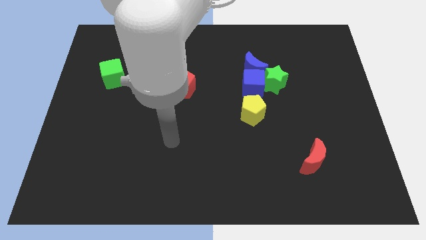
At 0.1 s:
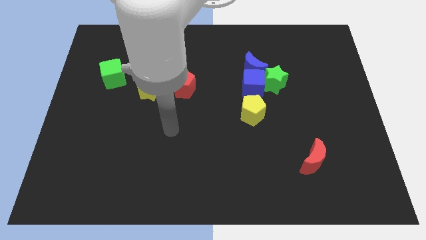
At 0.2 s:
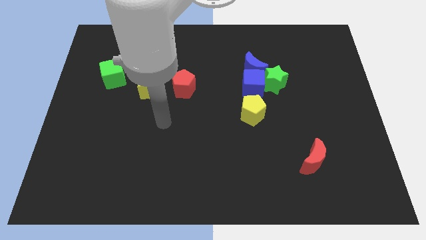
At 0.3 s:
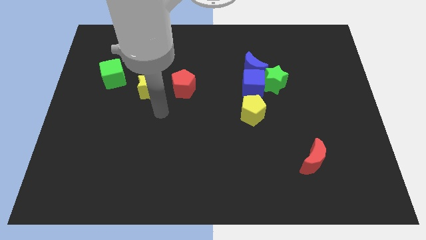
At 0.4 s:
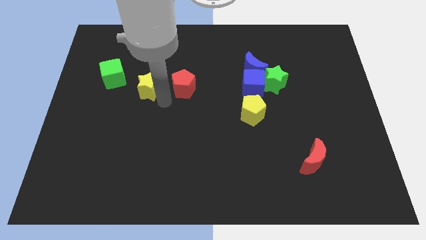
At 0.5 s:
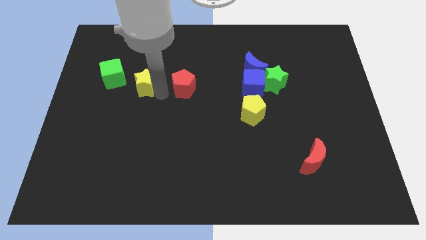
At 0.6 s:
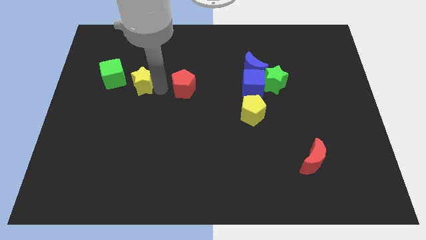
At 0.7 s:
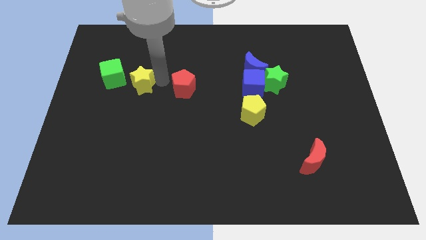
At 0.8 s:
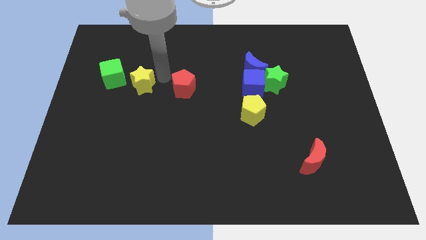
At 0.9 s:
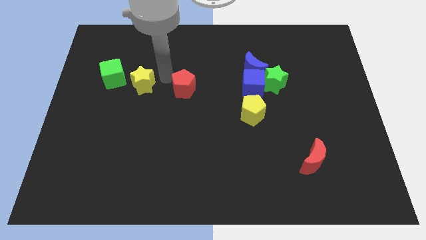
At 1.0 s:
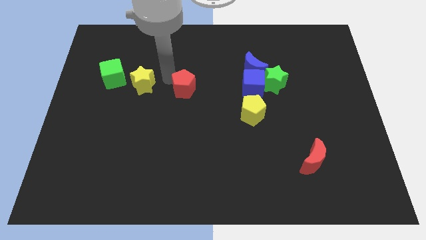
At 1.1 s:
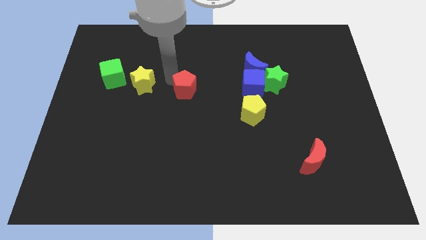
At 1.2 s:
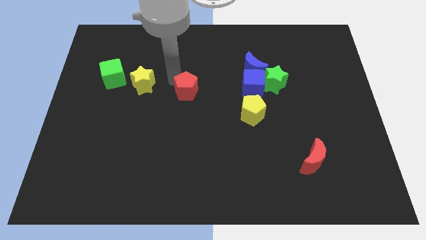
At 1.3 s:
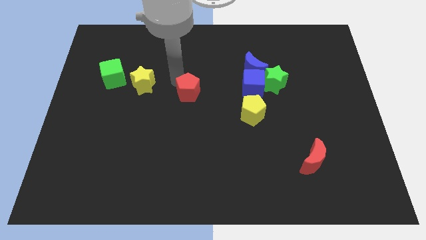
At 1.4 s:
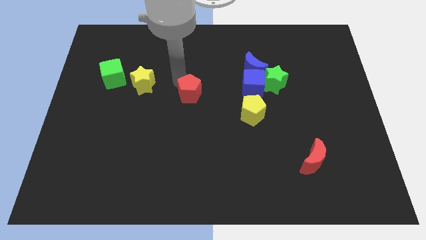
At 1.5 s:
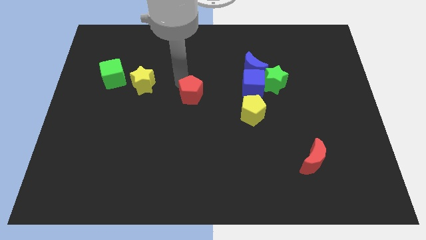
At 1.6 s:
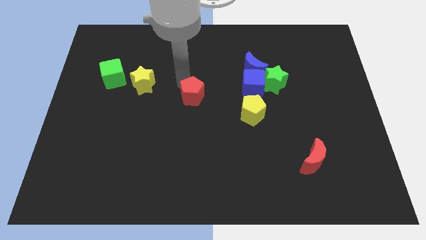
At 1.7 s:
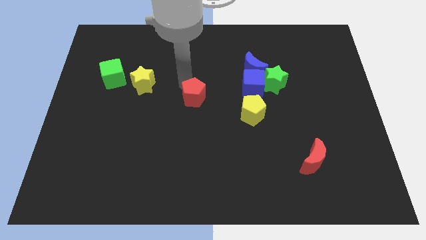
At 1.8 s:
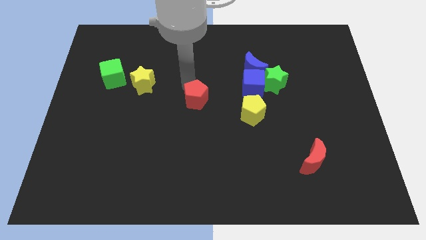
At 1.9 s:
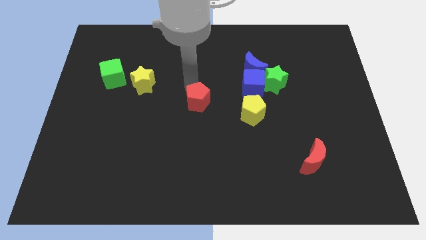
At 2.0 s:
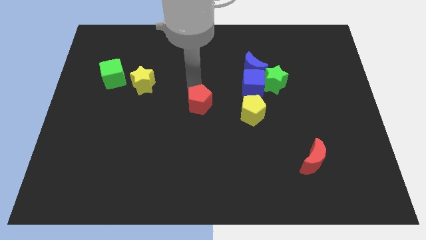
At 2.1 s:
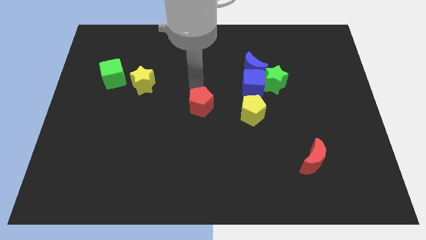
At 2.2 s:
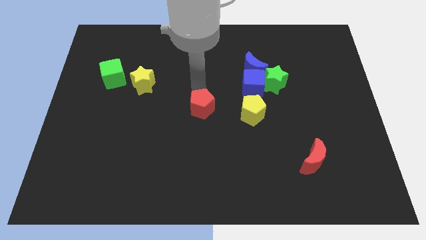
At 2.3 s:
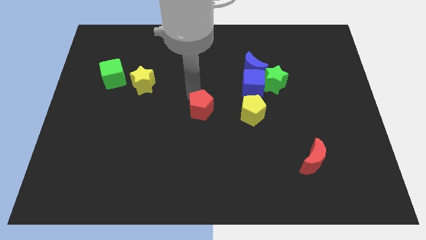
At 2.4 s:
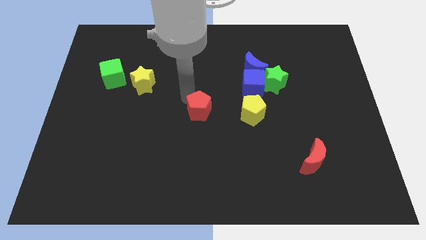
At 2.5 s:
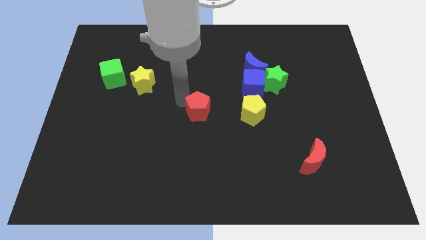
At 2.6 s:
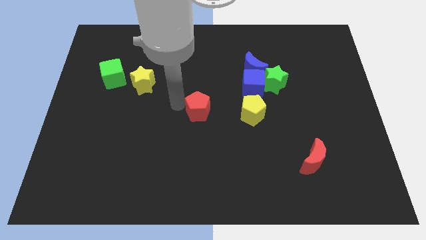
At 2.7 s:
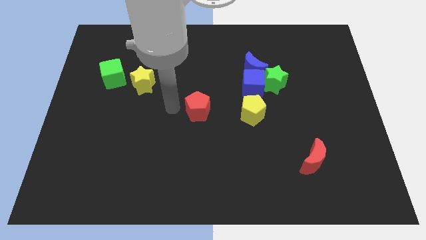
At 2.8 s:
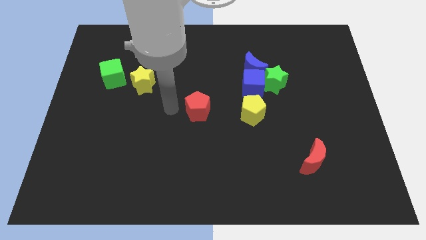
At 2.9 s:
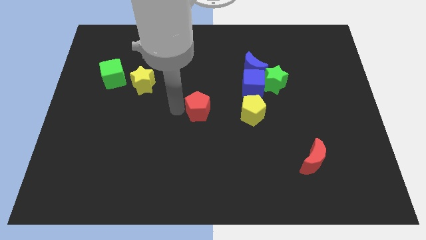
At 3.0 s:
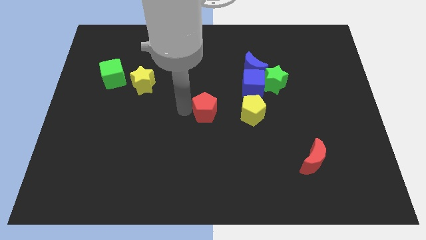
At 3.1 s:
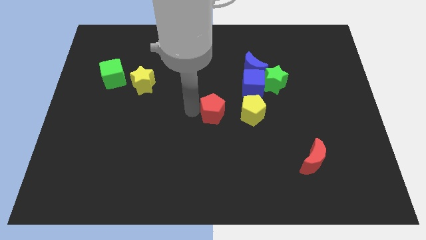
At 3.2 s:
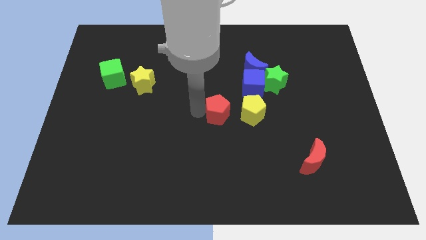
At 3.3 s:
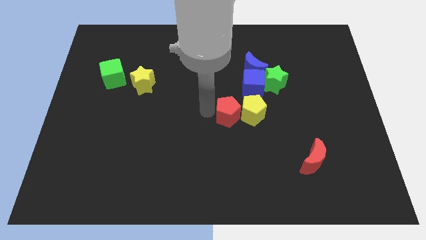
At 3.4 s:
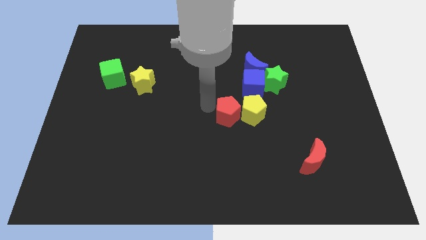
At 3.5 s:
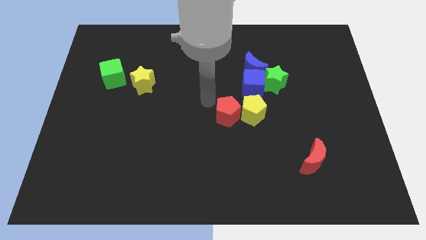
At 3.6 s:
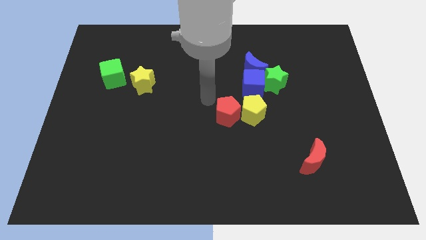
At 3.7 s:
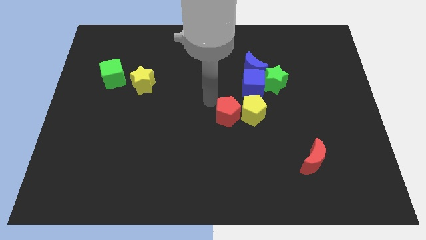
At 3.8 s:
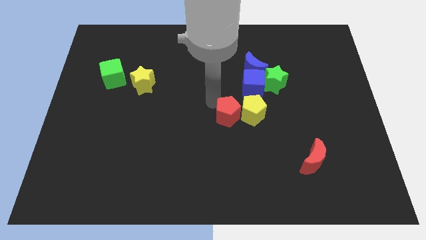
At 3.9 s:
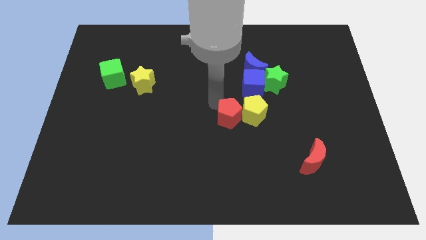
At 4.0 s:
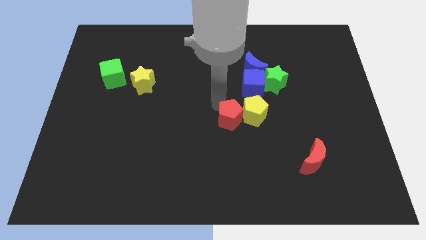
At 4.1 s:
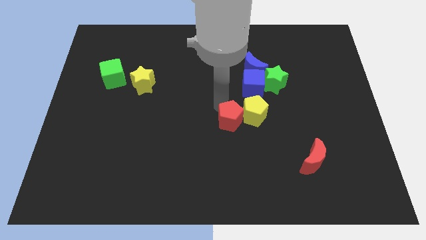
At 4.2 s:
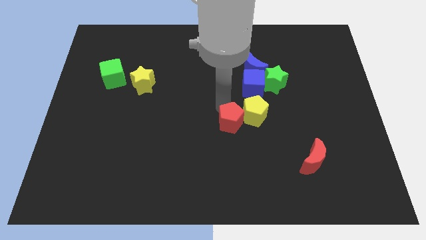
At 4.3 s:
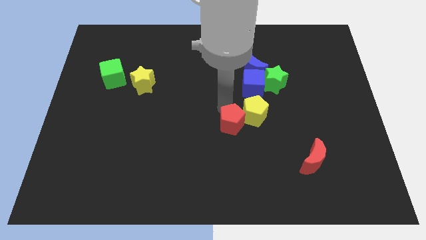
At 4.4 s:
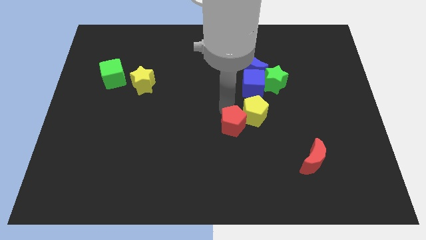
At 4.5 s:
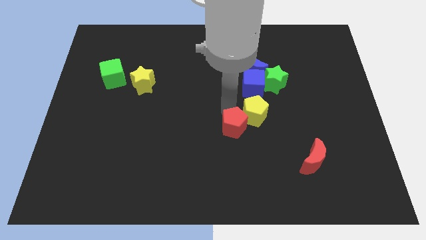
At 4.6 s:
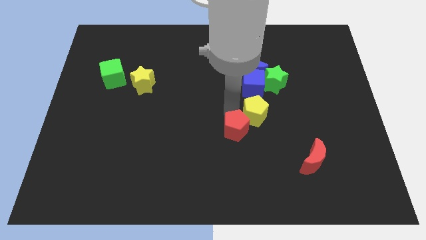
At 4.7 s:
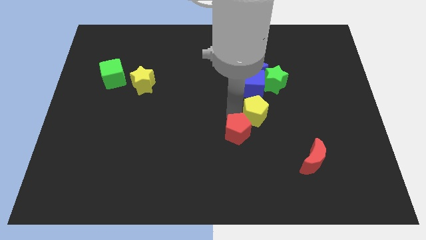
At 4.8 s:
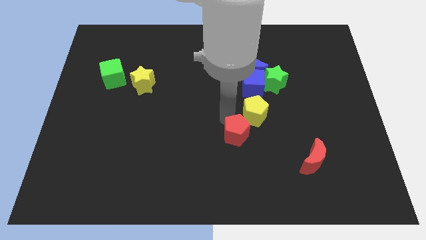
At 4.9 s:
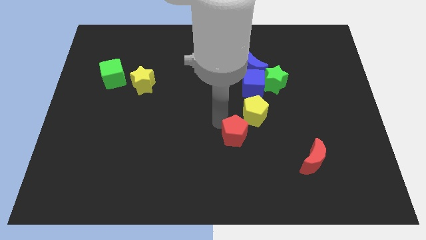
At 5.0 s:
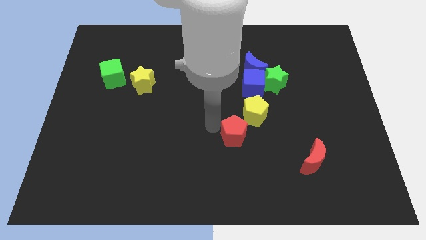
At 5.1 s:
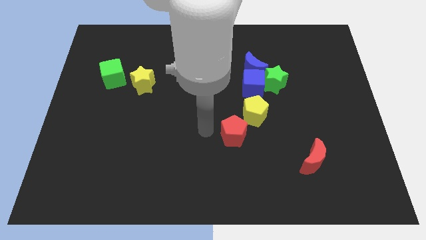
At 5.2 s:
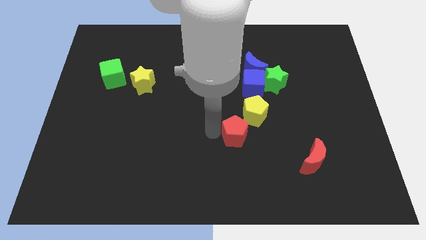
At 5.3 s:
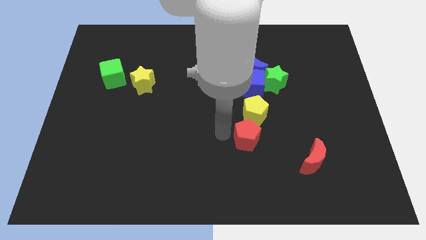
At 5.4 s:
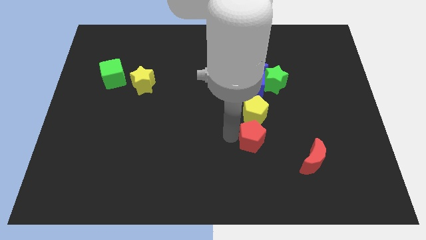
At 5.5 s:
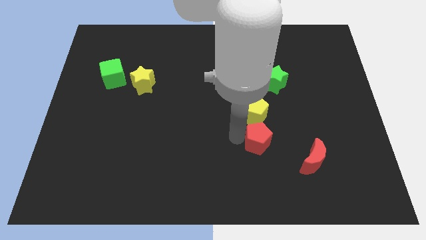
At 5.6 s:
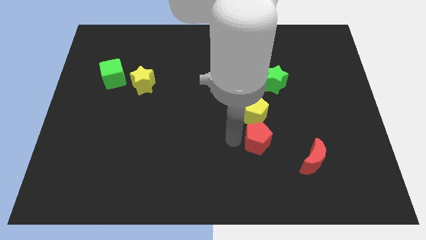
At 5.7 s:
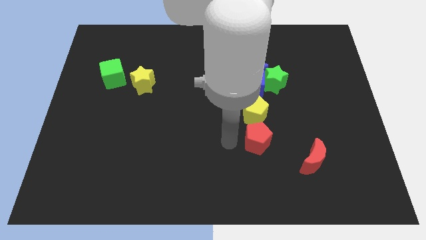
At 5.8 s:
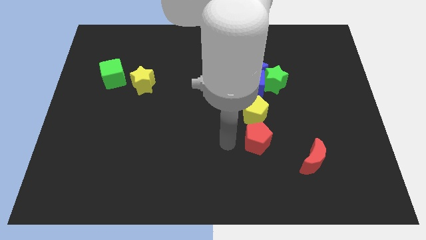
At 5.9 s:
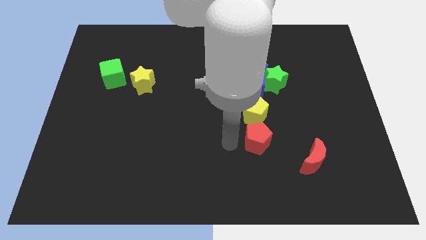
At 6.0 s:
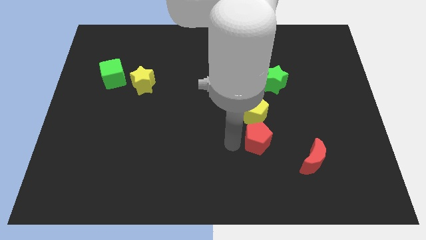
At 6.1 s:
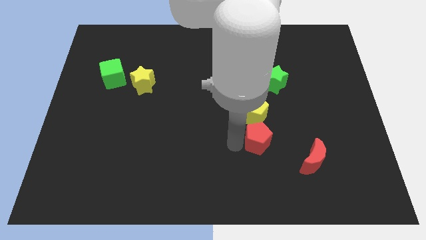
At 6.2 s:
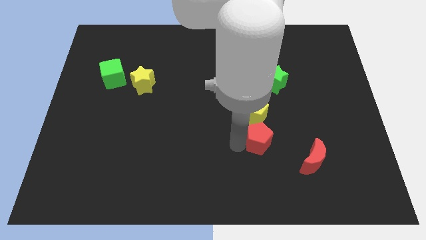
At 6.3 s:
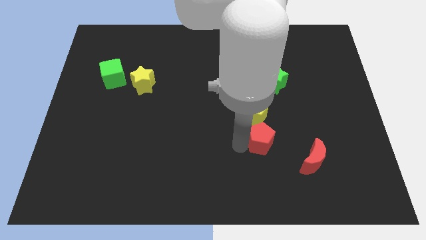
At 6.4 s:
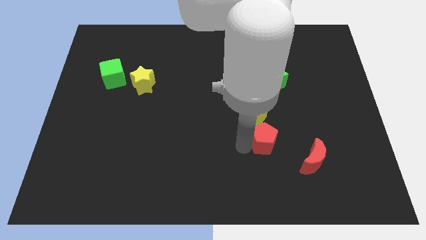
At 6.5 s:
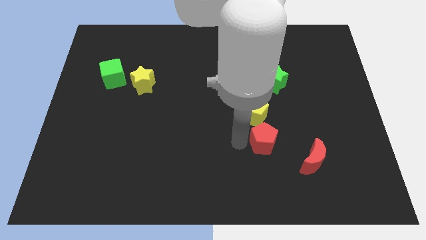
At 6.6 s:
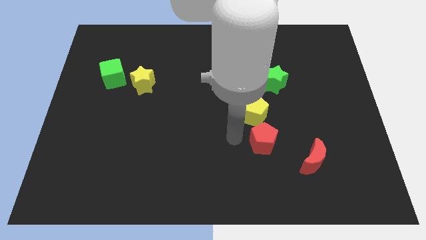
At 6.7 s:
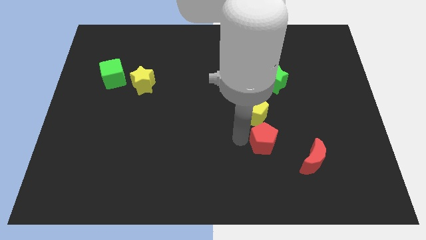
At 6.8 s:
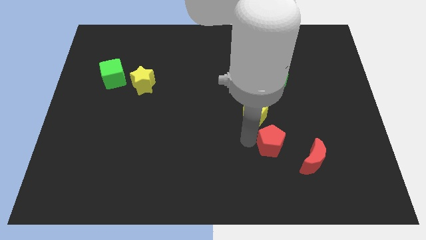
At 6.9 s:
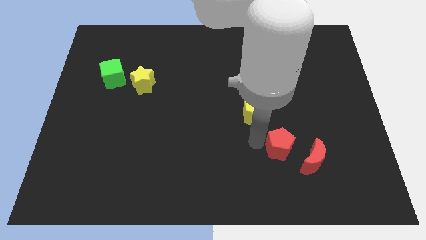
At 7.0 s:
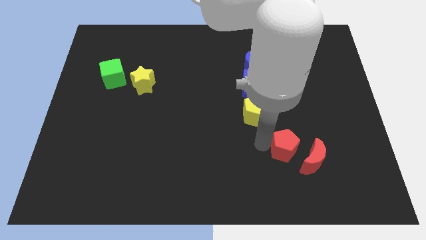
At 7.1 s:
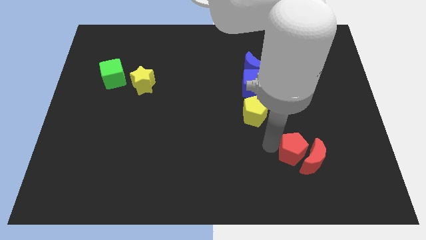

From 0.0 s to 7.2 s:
put the red pentagon to the red moon
